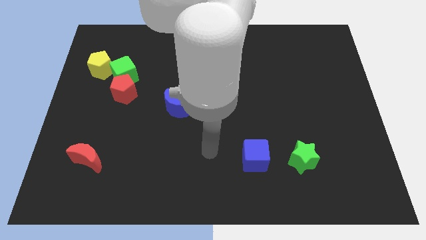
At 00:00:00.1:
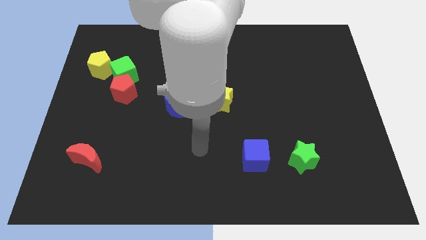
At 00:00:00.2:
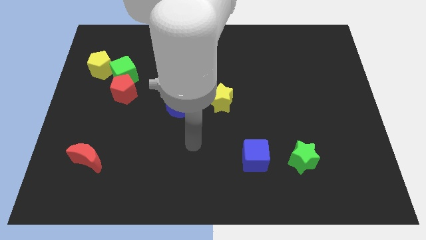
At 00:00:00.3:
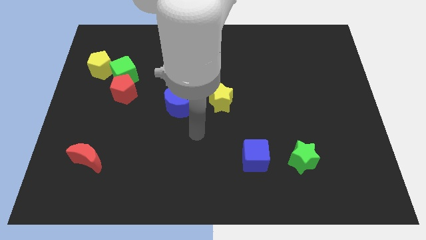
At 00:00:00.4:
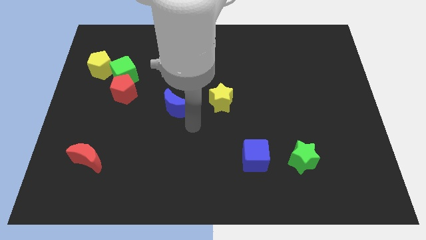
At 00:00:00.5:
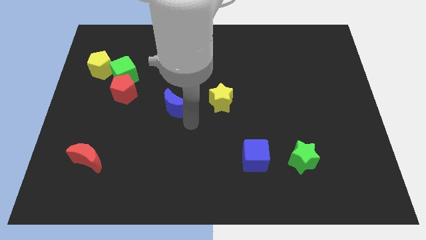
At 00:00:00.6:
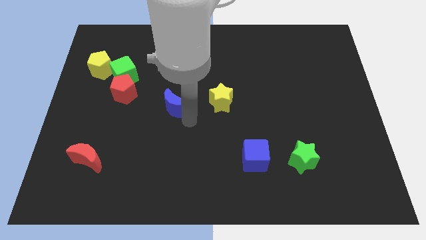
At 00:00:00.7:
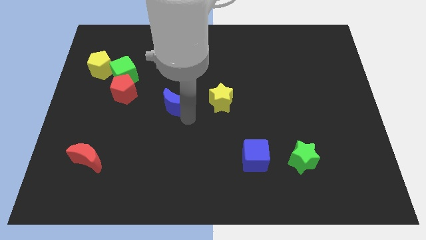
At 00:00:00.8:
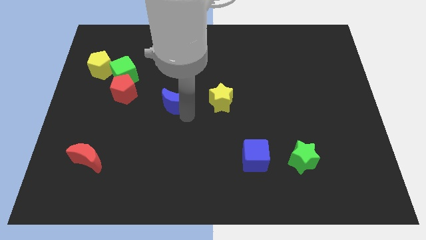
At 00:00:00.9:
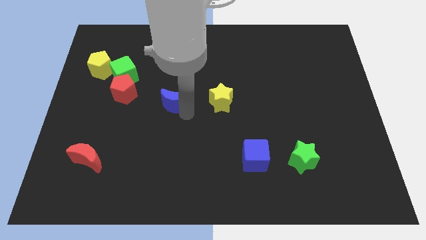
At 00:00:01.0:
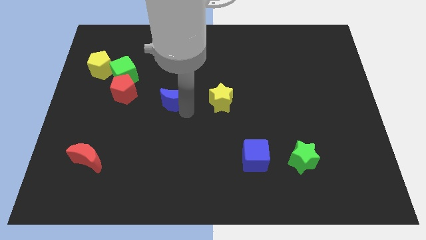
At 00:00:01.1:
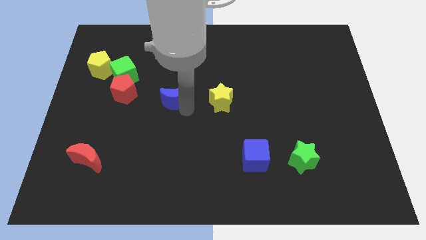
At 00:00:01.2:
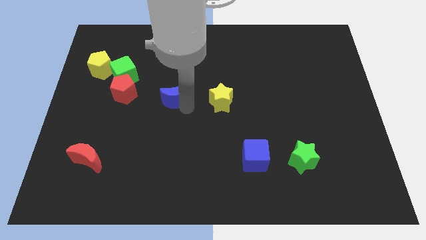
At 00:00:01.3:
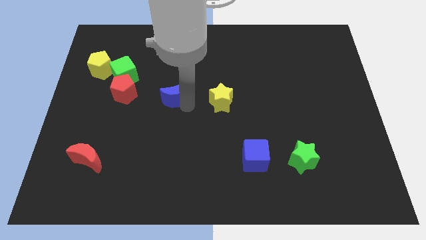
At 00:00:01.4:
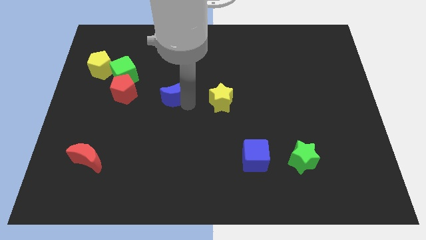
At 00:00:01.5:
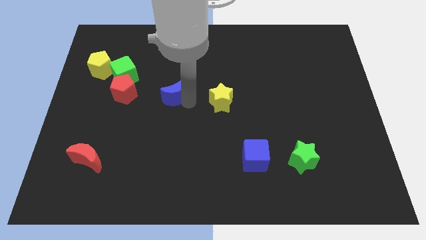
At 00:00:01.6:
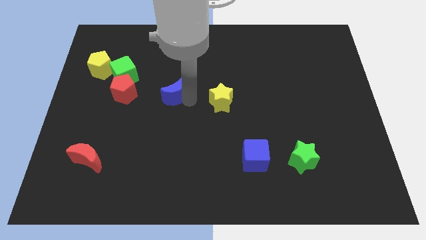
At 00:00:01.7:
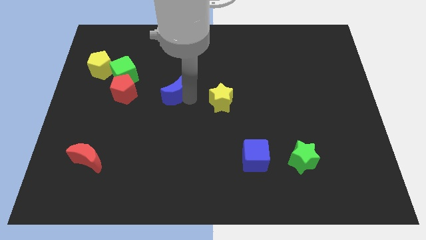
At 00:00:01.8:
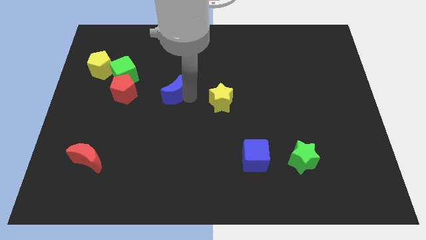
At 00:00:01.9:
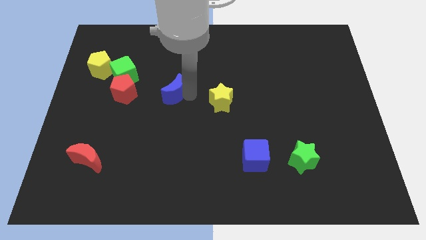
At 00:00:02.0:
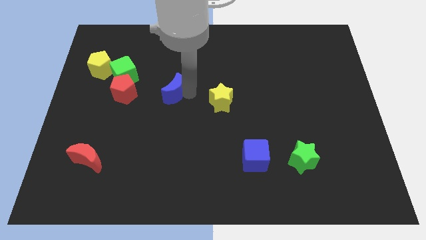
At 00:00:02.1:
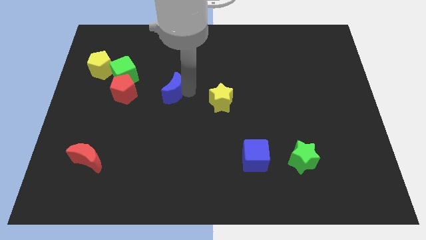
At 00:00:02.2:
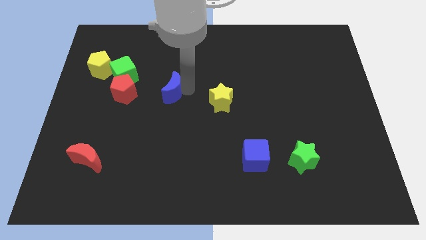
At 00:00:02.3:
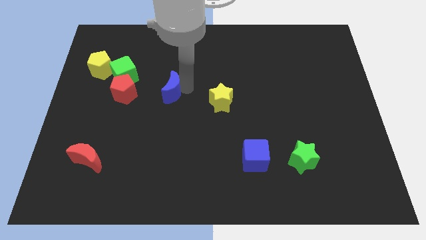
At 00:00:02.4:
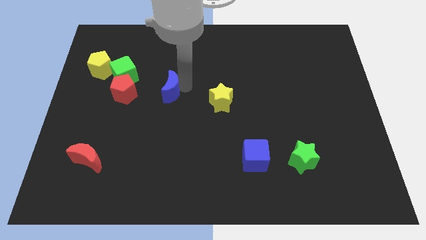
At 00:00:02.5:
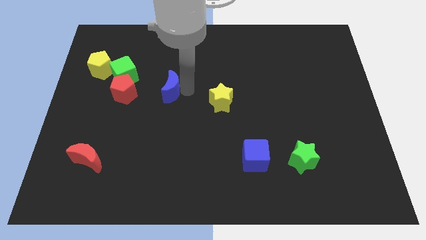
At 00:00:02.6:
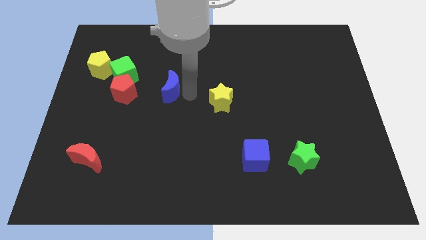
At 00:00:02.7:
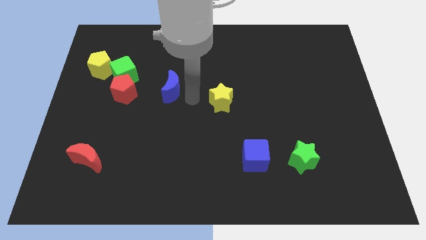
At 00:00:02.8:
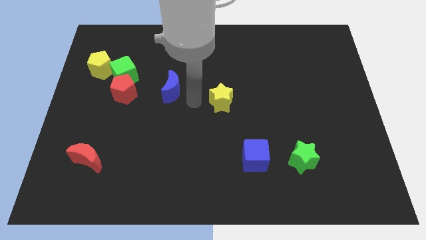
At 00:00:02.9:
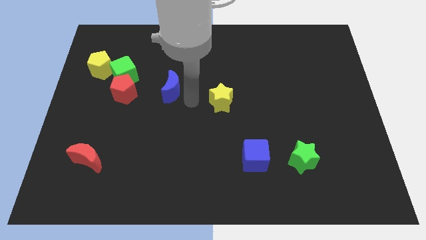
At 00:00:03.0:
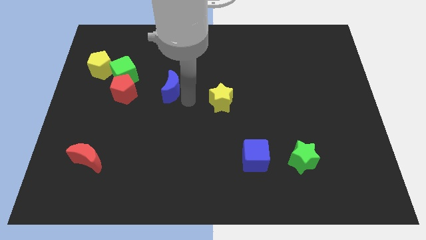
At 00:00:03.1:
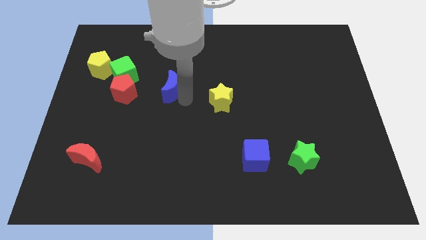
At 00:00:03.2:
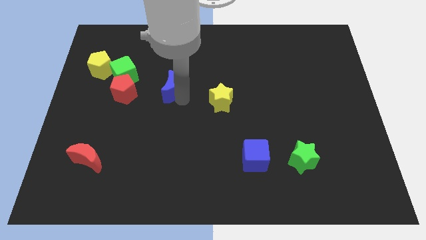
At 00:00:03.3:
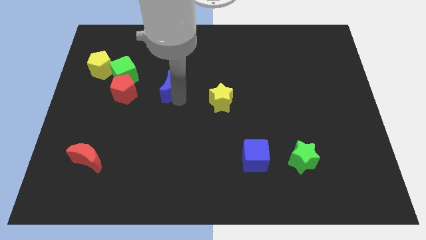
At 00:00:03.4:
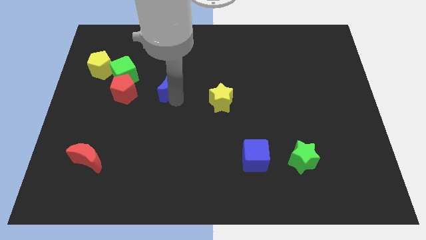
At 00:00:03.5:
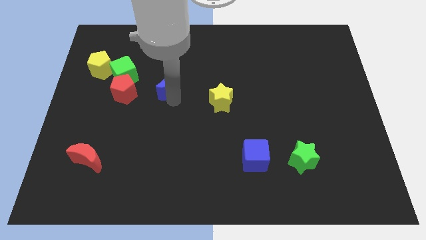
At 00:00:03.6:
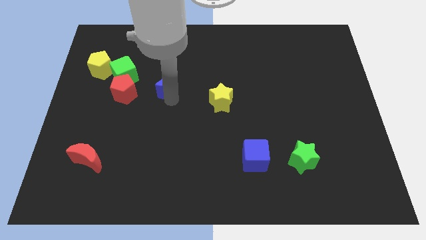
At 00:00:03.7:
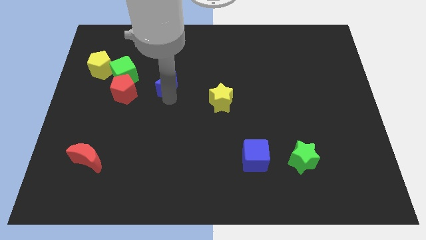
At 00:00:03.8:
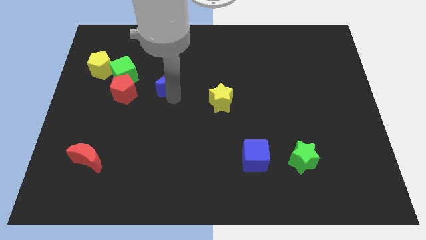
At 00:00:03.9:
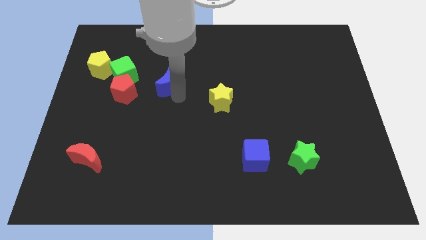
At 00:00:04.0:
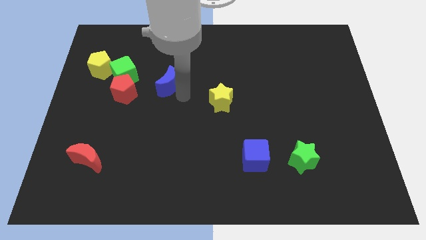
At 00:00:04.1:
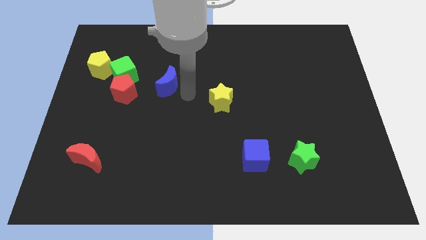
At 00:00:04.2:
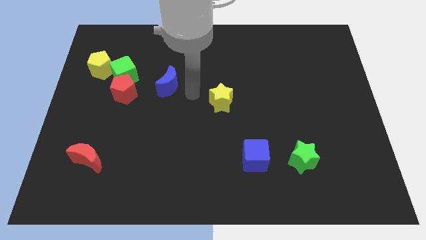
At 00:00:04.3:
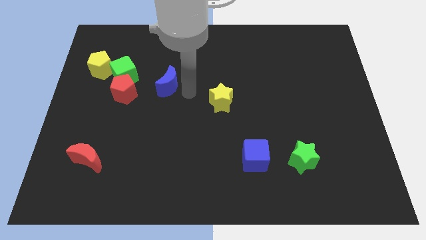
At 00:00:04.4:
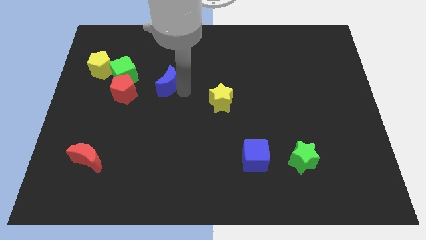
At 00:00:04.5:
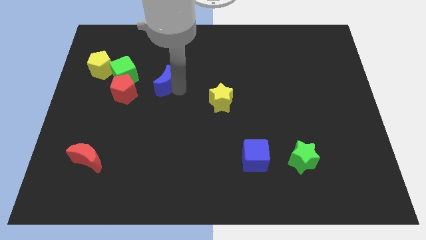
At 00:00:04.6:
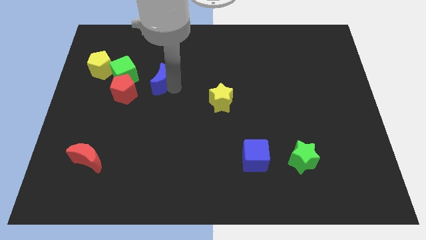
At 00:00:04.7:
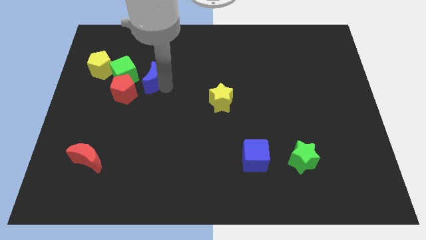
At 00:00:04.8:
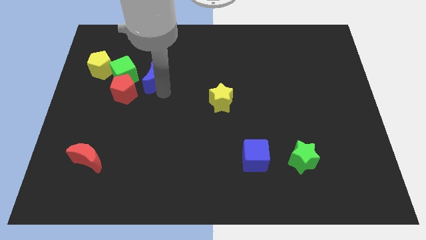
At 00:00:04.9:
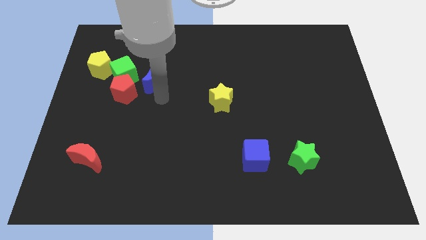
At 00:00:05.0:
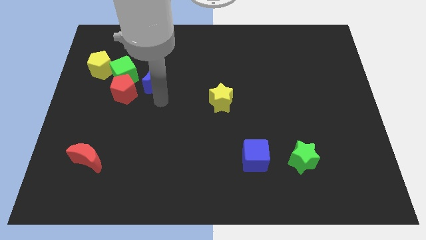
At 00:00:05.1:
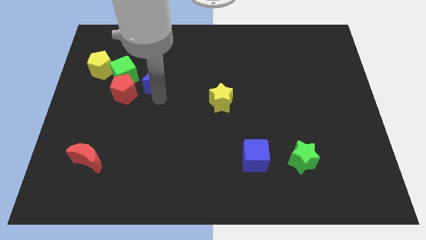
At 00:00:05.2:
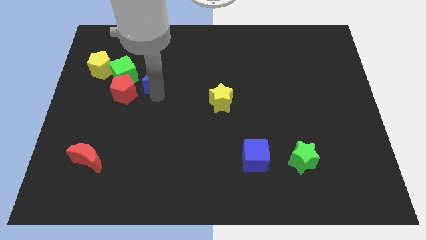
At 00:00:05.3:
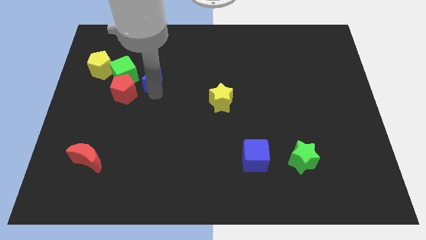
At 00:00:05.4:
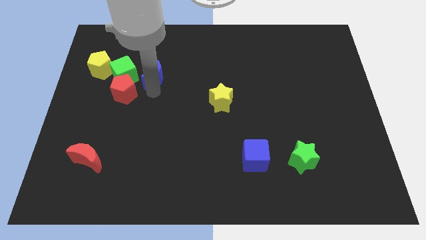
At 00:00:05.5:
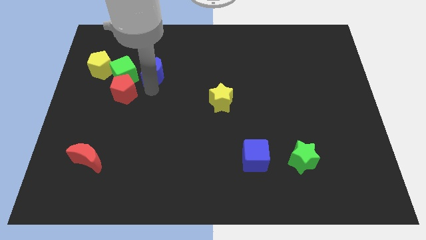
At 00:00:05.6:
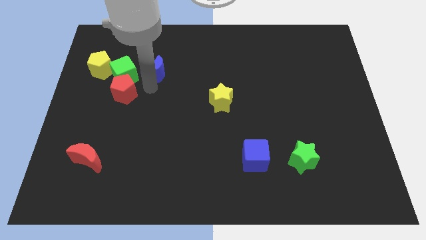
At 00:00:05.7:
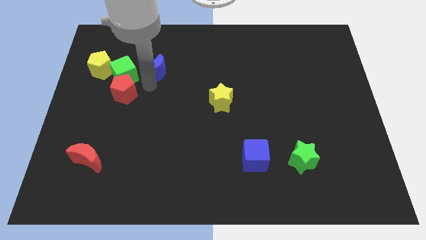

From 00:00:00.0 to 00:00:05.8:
put the blue moon to the top right side of the green cube
